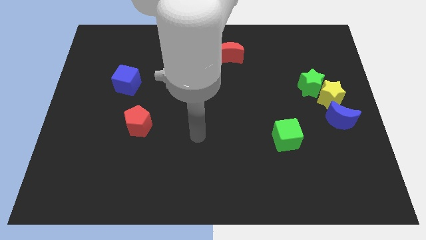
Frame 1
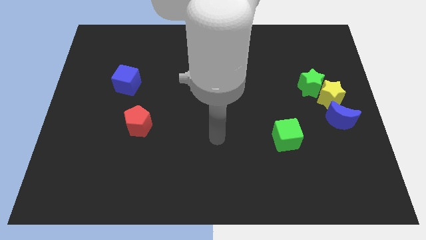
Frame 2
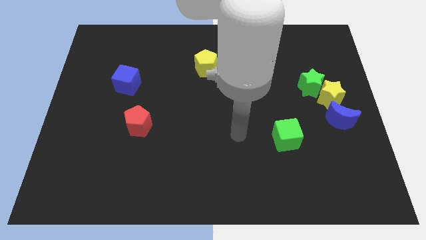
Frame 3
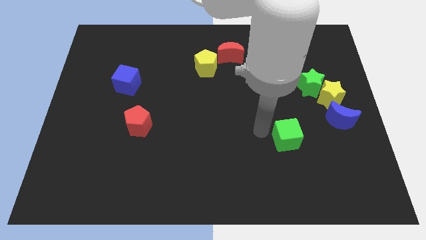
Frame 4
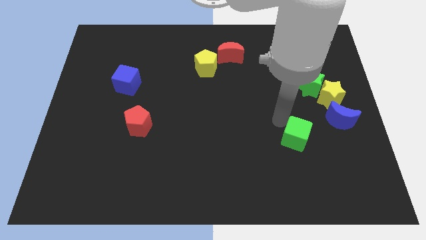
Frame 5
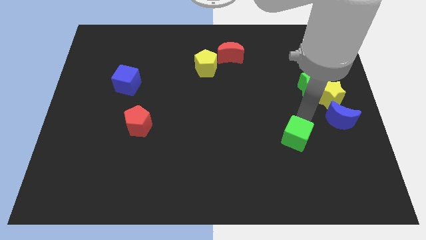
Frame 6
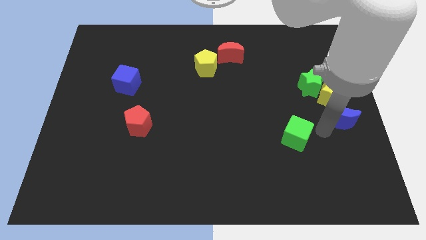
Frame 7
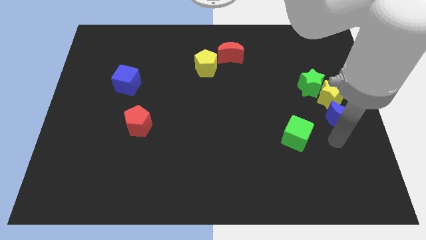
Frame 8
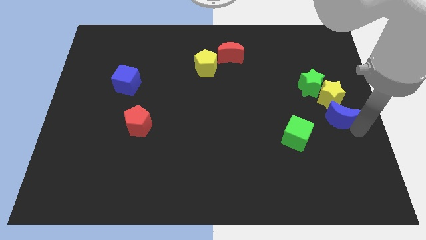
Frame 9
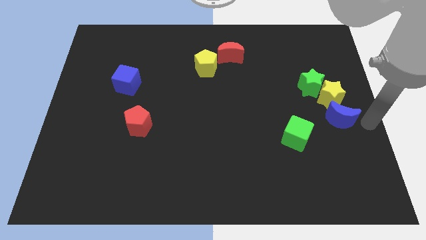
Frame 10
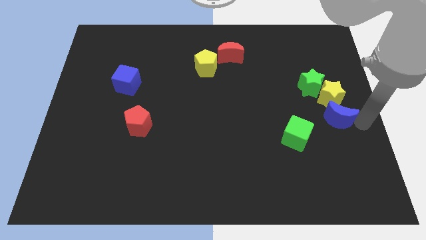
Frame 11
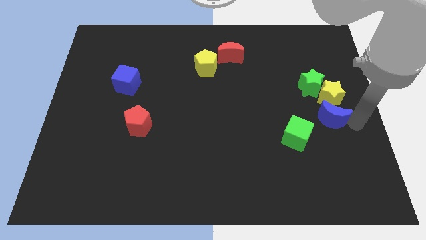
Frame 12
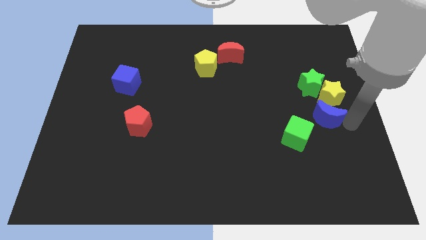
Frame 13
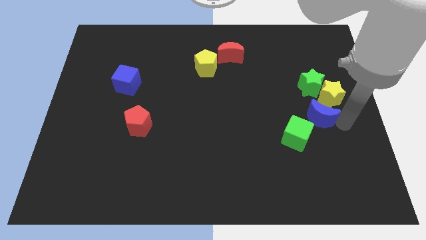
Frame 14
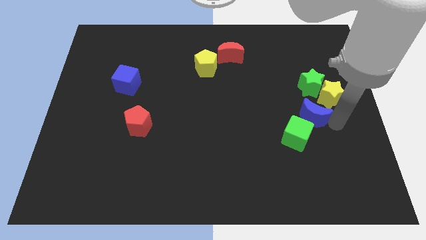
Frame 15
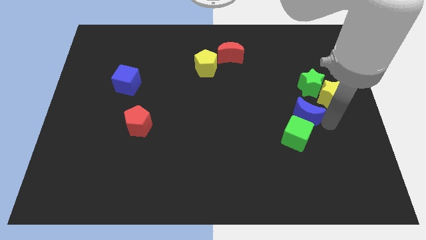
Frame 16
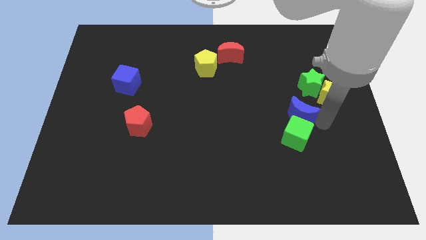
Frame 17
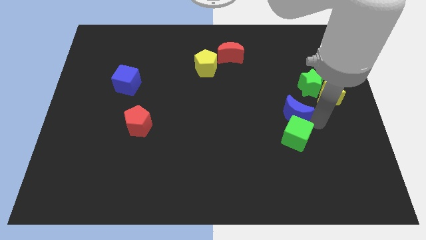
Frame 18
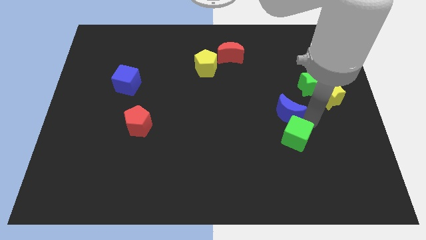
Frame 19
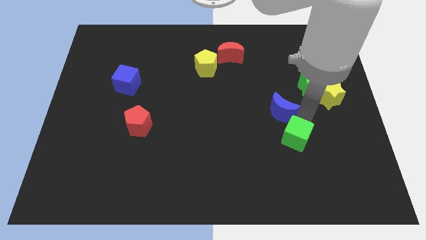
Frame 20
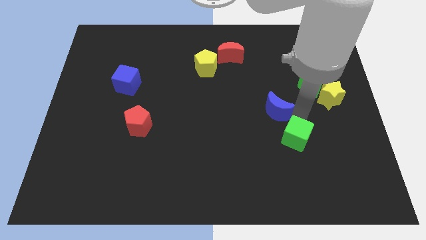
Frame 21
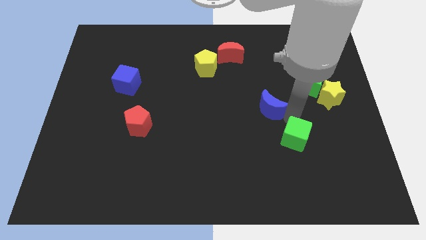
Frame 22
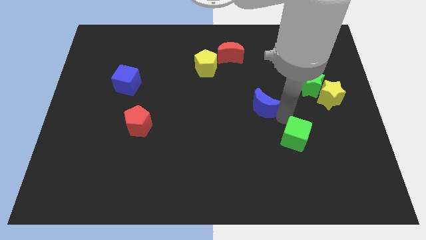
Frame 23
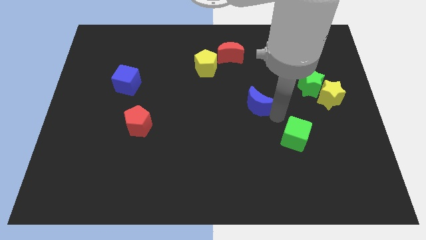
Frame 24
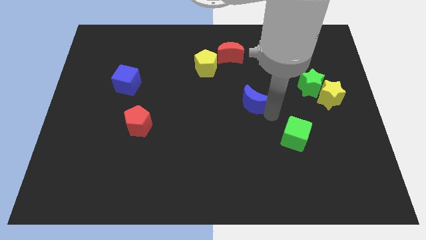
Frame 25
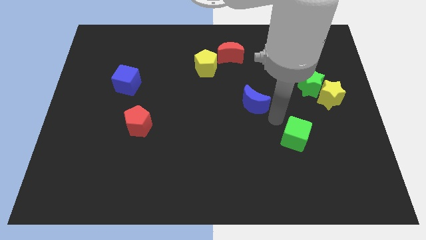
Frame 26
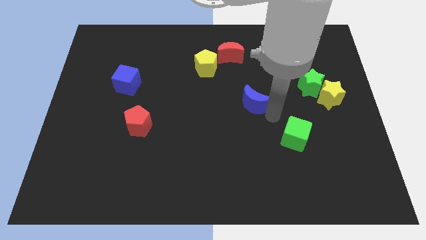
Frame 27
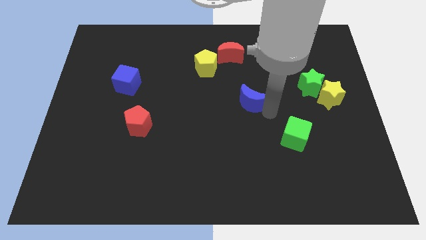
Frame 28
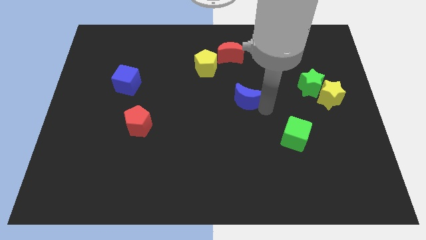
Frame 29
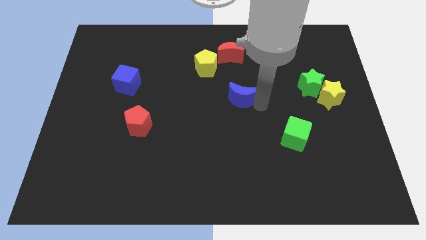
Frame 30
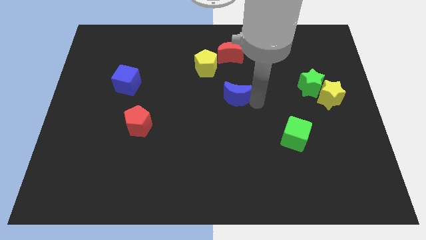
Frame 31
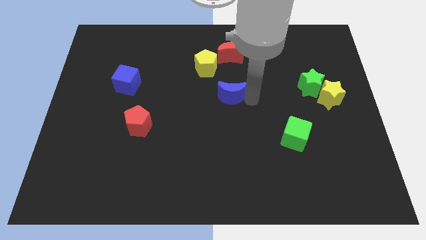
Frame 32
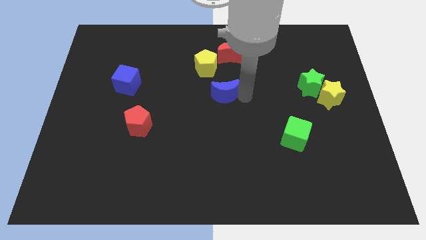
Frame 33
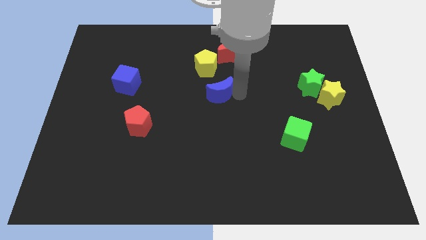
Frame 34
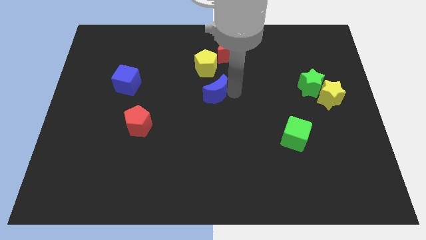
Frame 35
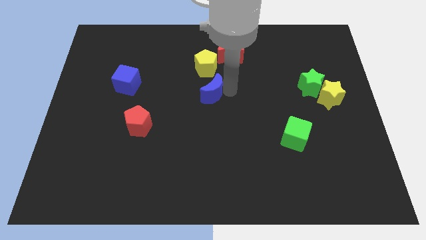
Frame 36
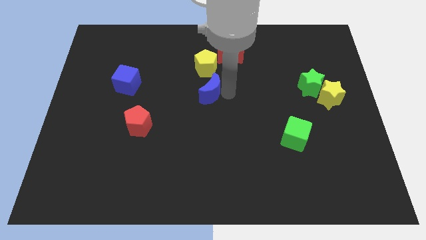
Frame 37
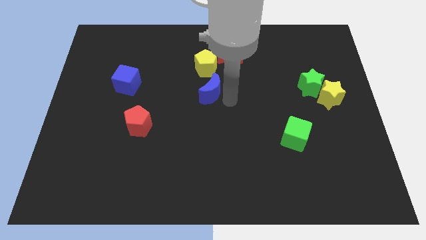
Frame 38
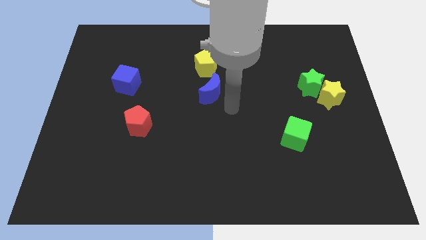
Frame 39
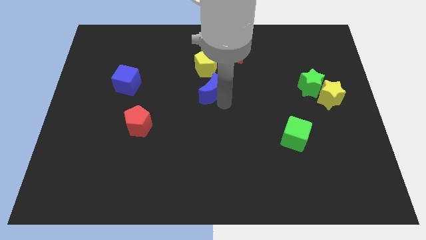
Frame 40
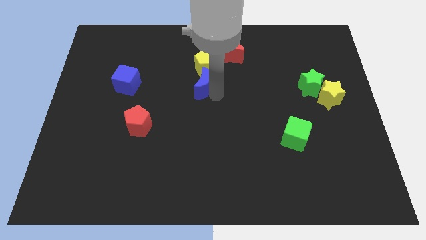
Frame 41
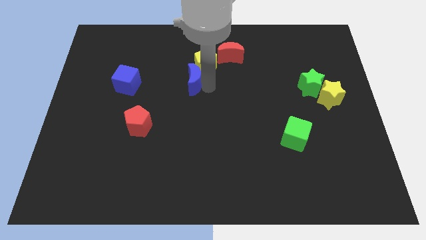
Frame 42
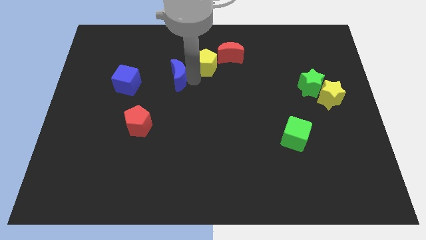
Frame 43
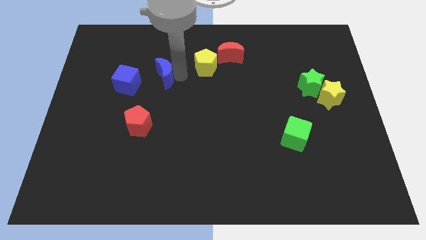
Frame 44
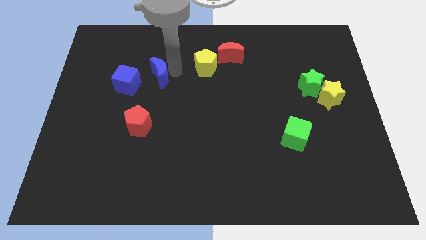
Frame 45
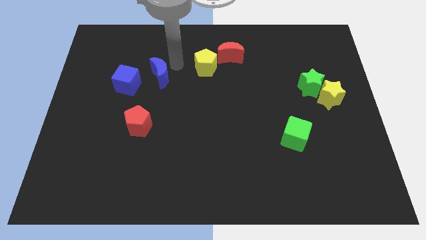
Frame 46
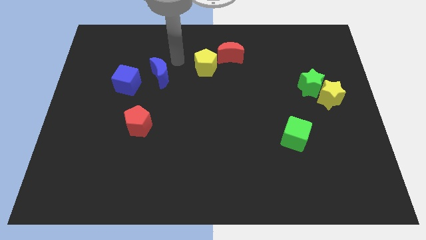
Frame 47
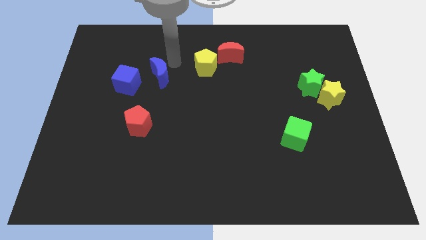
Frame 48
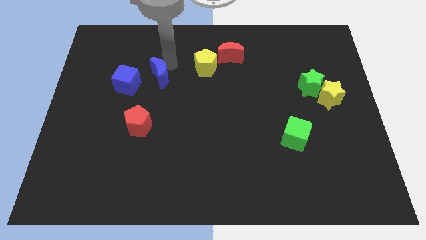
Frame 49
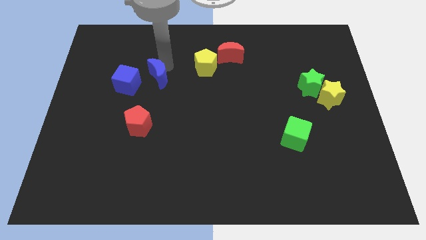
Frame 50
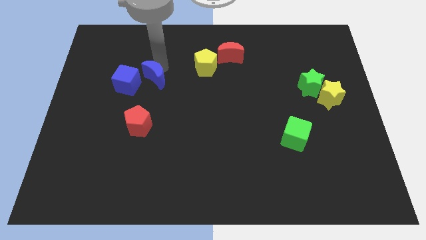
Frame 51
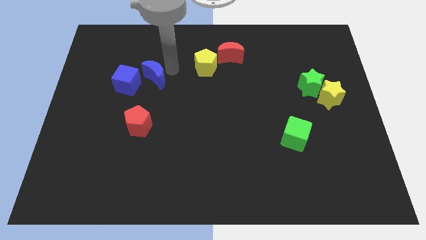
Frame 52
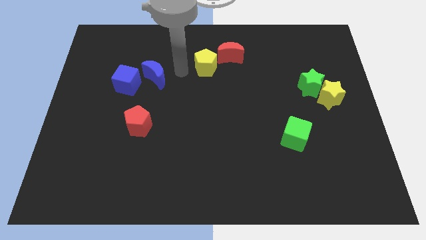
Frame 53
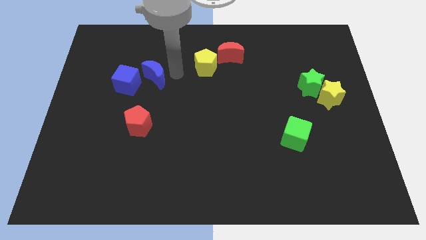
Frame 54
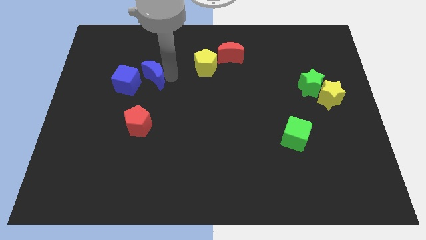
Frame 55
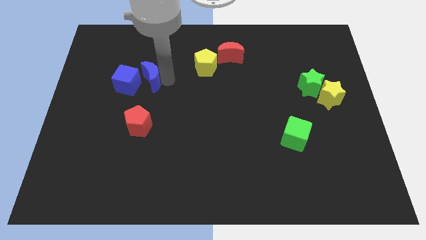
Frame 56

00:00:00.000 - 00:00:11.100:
push the blue moon towards the blue cube

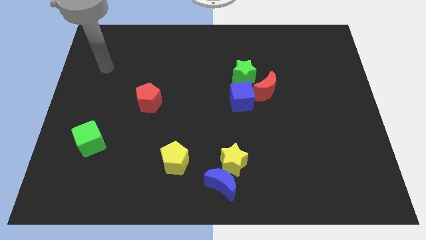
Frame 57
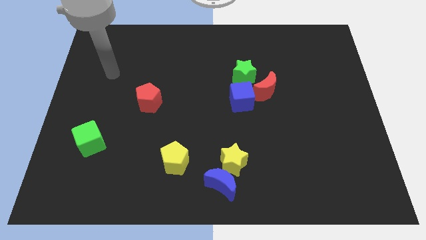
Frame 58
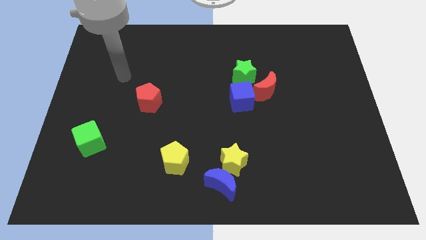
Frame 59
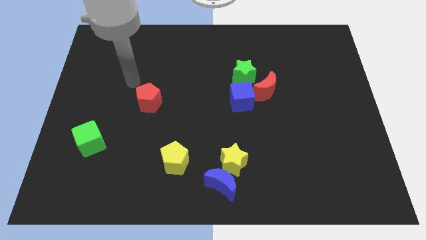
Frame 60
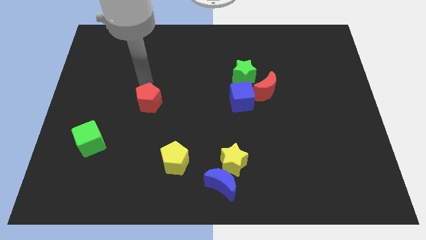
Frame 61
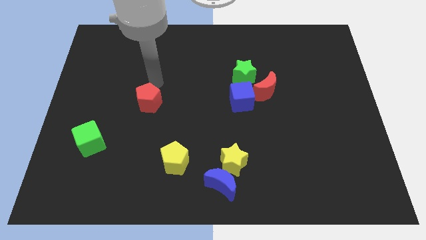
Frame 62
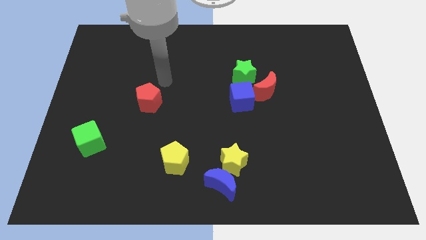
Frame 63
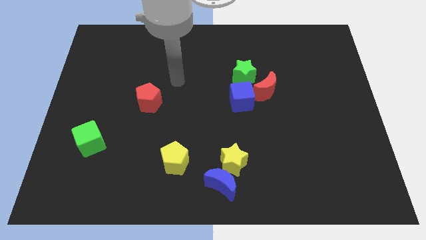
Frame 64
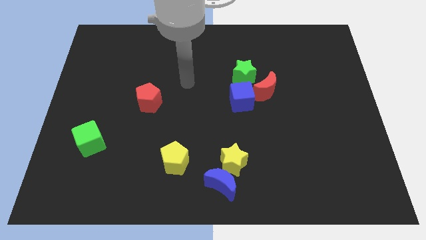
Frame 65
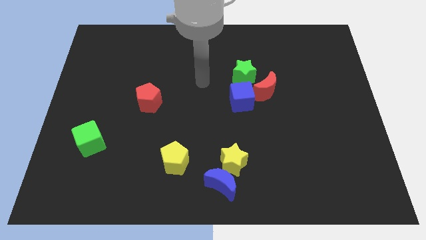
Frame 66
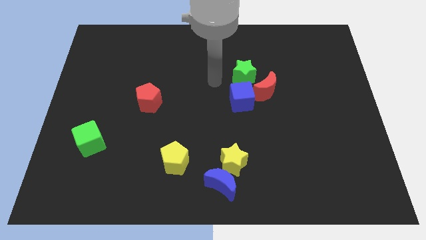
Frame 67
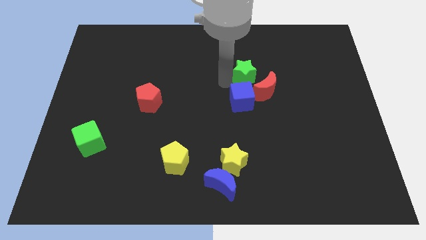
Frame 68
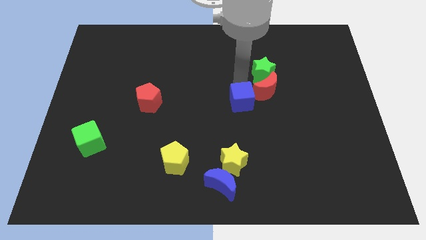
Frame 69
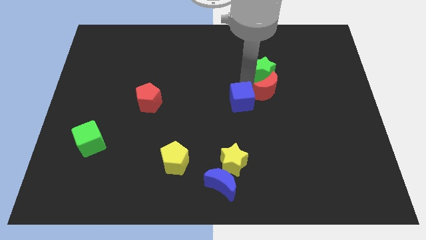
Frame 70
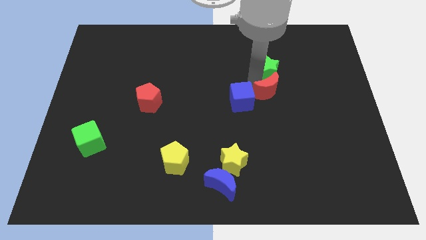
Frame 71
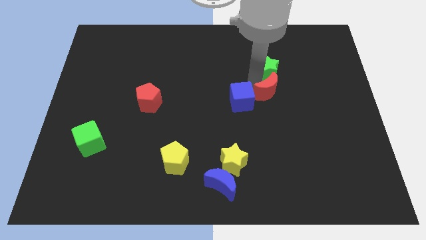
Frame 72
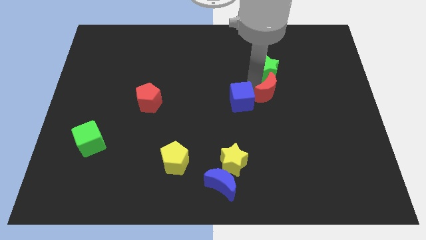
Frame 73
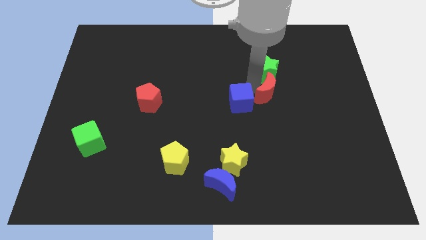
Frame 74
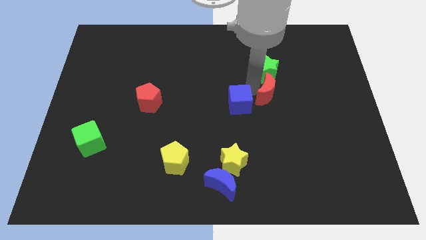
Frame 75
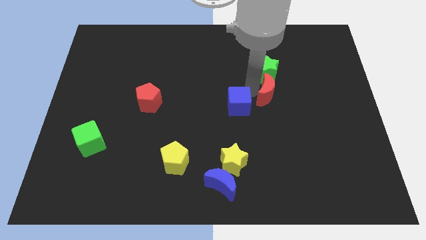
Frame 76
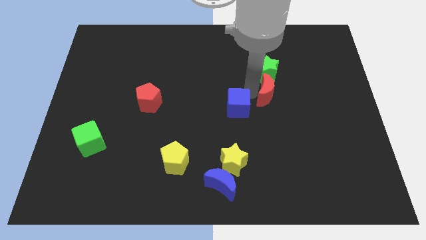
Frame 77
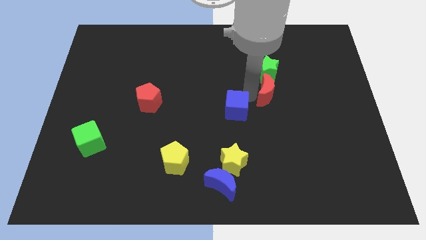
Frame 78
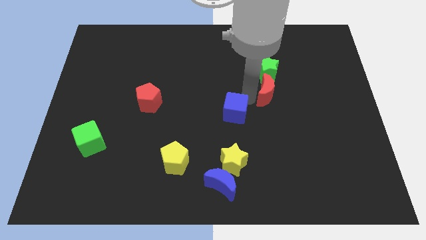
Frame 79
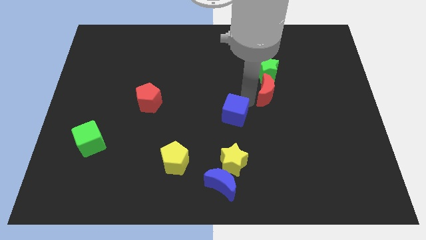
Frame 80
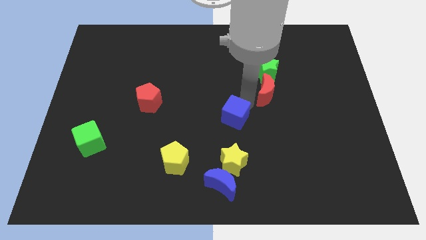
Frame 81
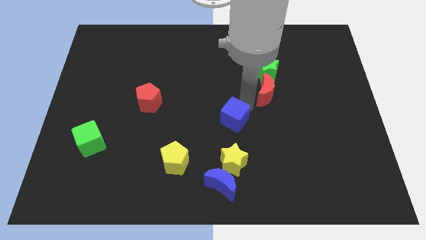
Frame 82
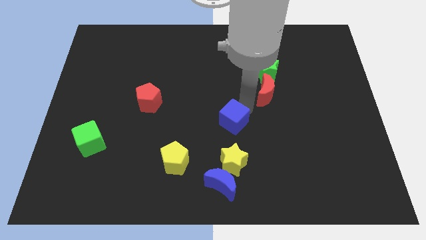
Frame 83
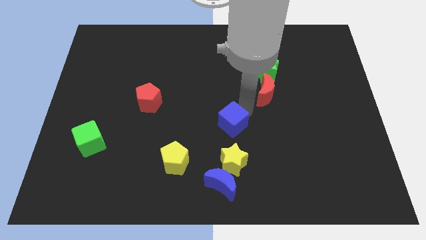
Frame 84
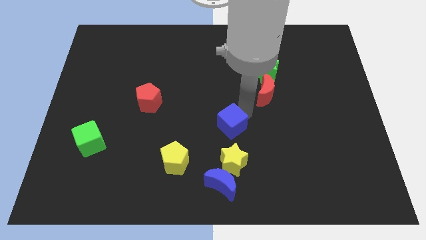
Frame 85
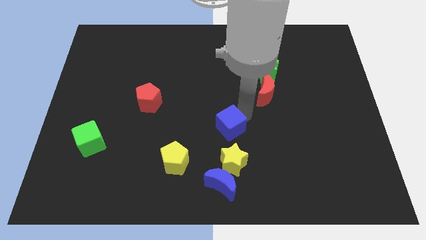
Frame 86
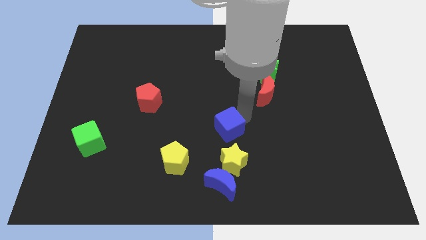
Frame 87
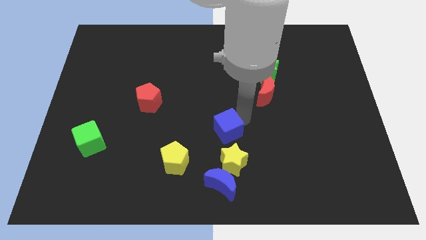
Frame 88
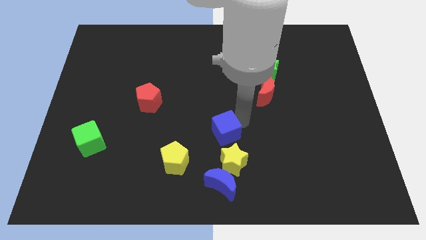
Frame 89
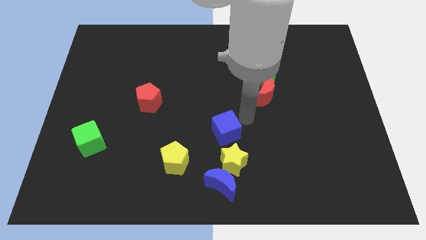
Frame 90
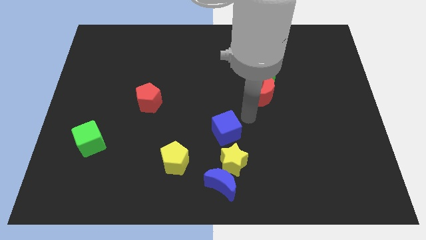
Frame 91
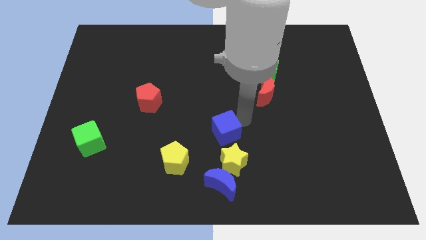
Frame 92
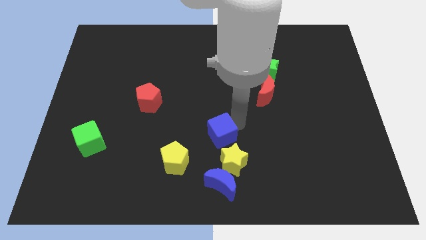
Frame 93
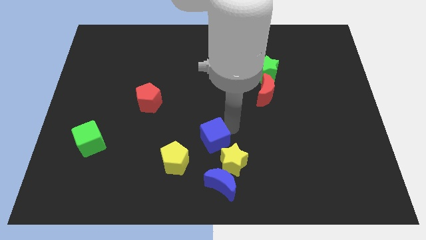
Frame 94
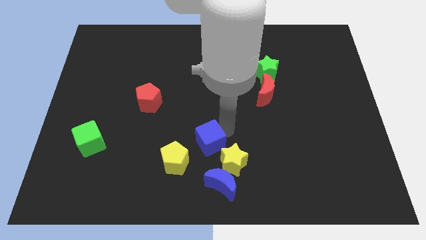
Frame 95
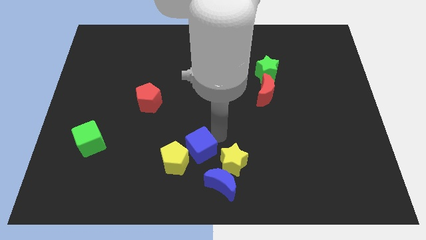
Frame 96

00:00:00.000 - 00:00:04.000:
put the blue cube towards the yellow pentagon
